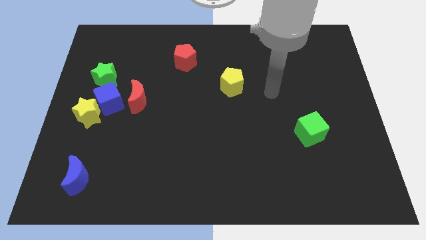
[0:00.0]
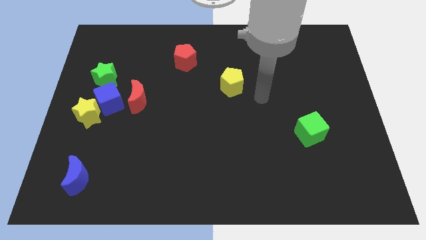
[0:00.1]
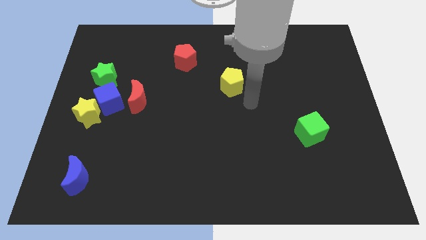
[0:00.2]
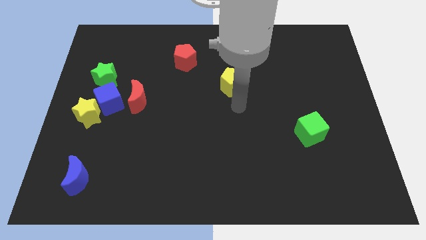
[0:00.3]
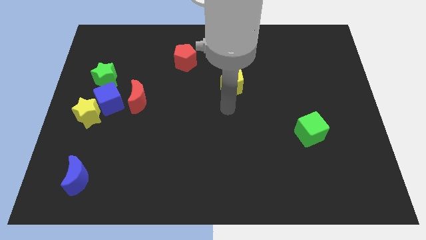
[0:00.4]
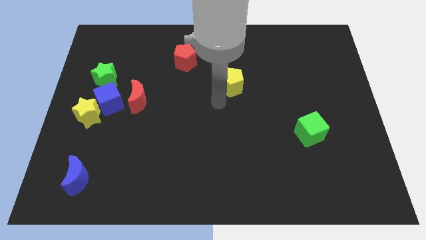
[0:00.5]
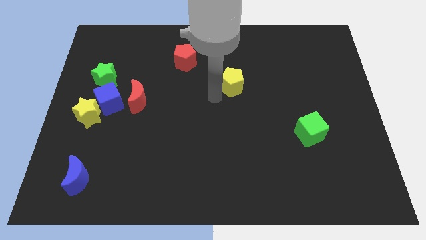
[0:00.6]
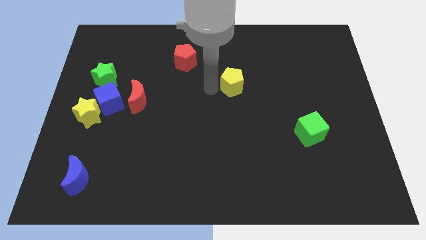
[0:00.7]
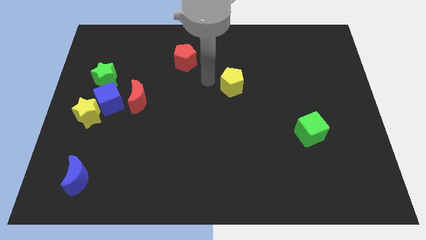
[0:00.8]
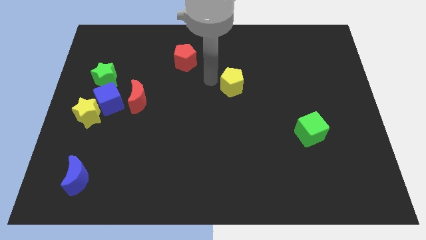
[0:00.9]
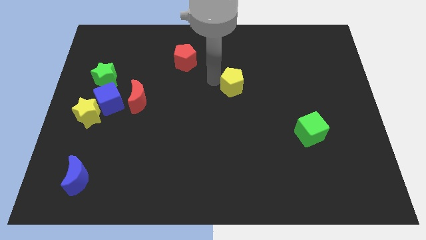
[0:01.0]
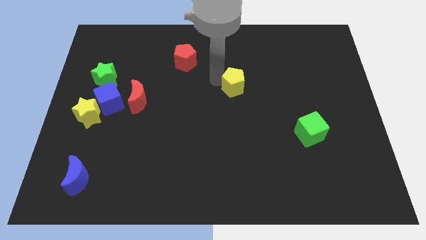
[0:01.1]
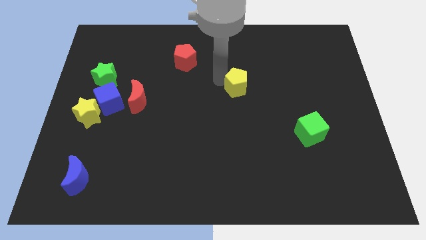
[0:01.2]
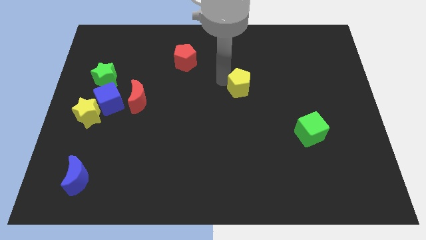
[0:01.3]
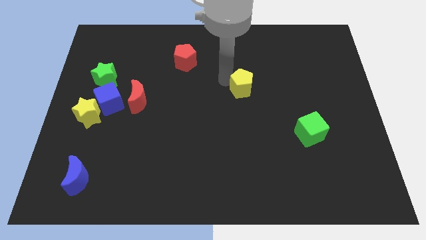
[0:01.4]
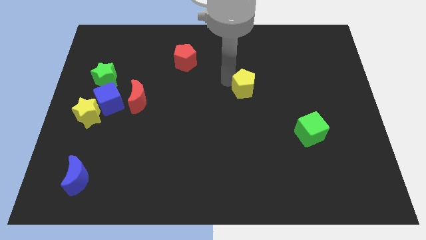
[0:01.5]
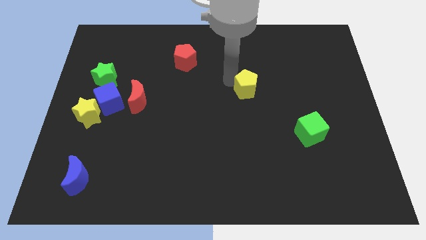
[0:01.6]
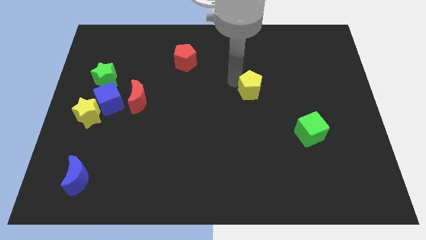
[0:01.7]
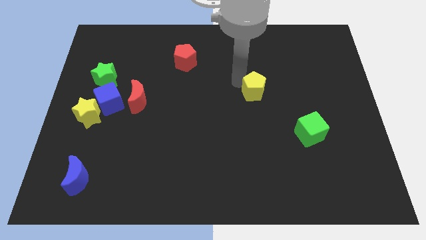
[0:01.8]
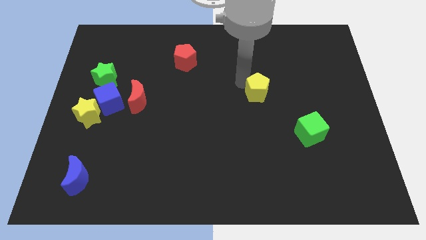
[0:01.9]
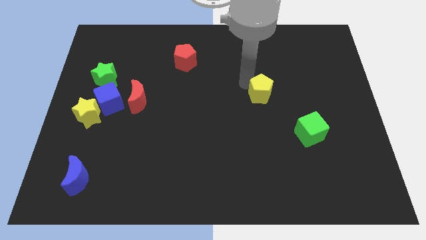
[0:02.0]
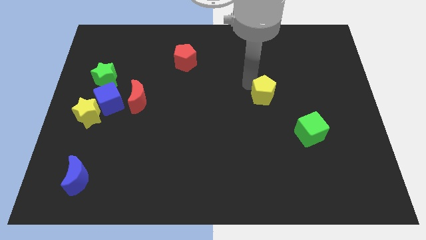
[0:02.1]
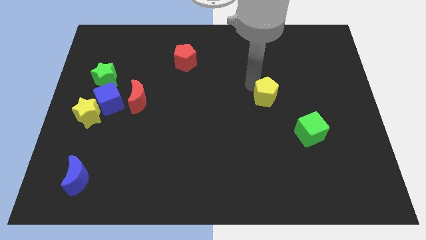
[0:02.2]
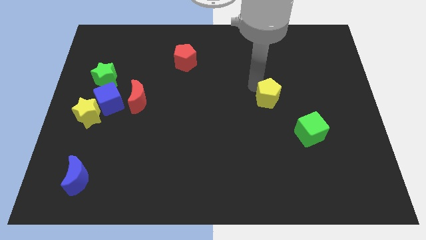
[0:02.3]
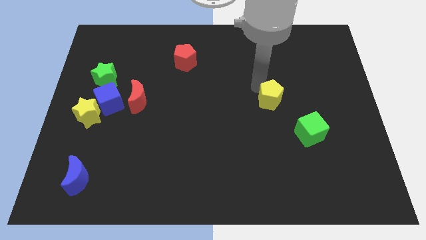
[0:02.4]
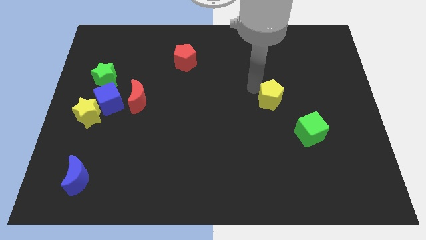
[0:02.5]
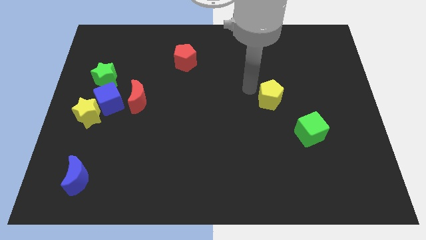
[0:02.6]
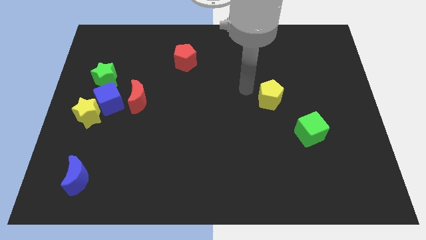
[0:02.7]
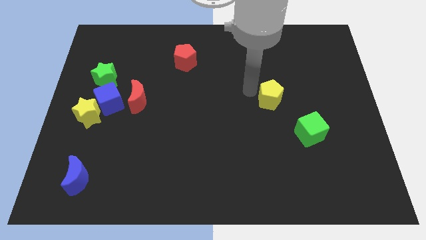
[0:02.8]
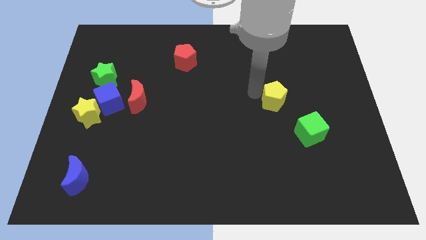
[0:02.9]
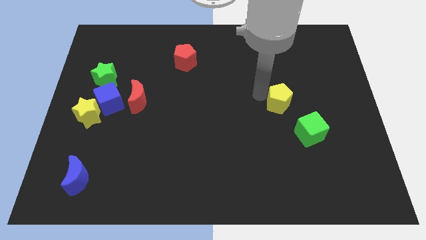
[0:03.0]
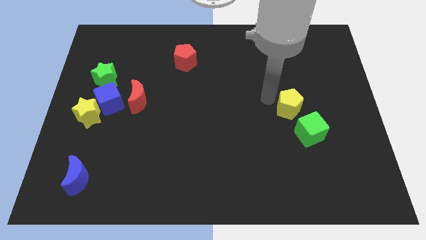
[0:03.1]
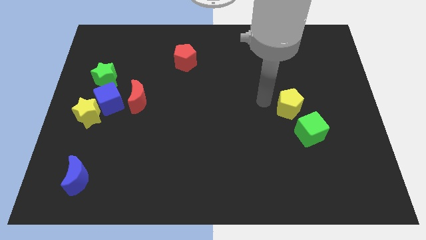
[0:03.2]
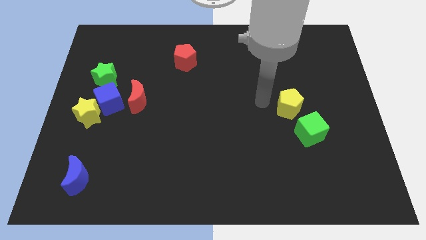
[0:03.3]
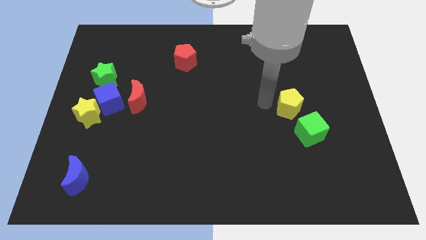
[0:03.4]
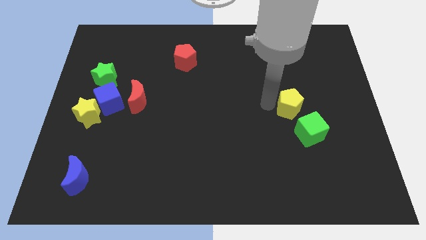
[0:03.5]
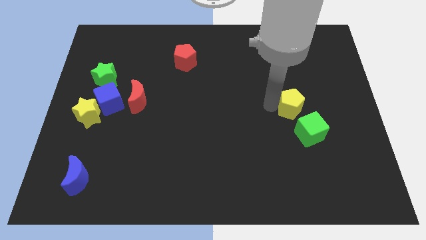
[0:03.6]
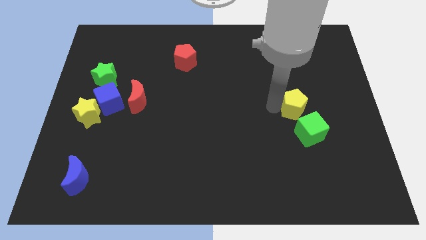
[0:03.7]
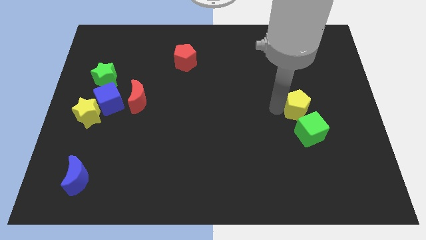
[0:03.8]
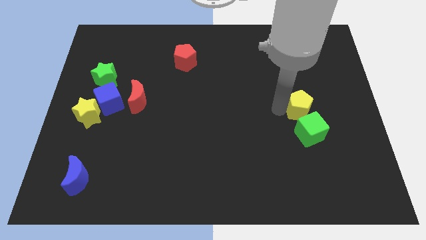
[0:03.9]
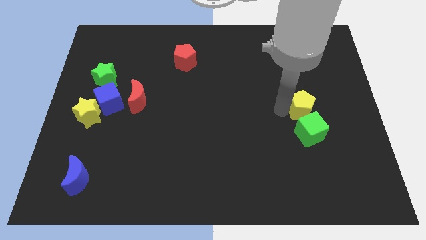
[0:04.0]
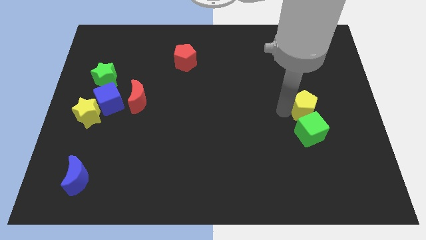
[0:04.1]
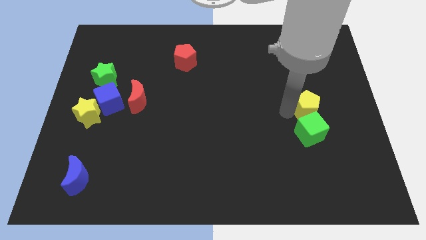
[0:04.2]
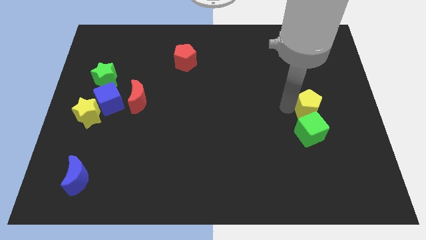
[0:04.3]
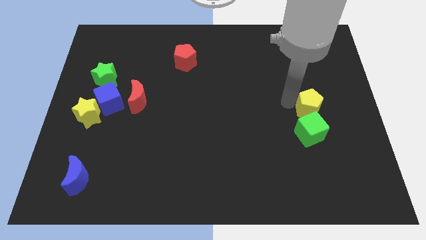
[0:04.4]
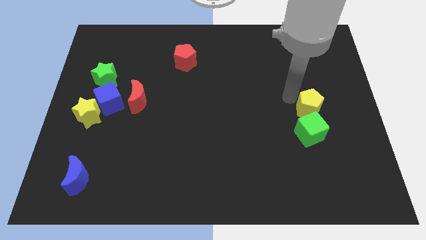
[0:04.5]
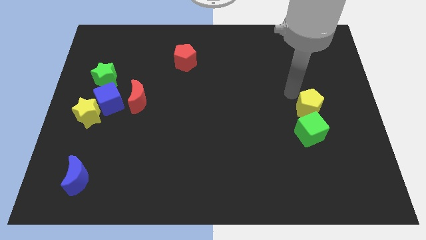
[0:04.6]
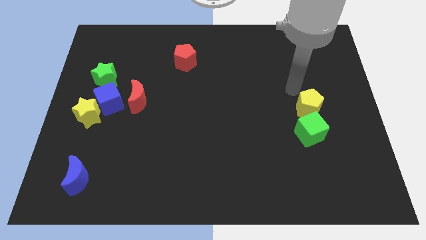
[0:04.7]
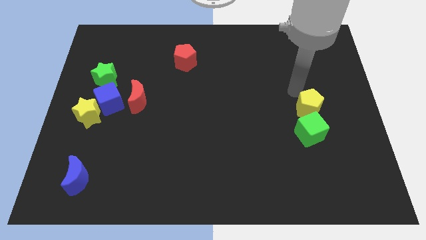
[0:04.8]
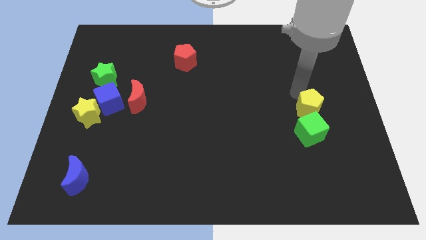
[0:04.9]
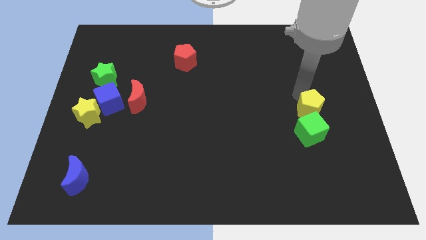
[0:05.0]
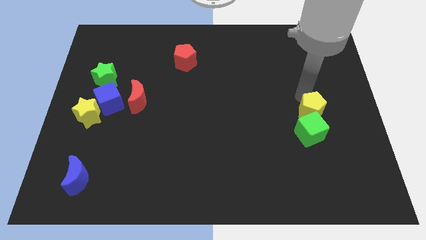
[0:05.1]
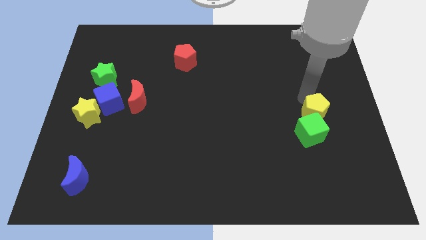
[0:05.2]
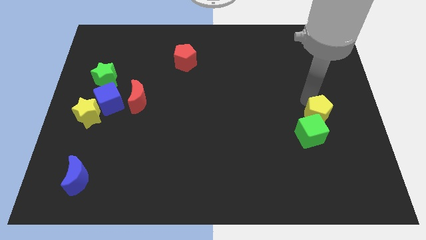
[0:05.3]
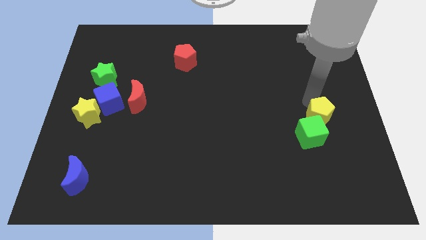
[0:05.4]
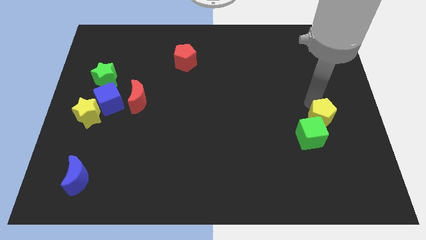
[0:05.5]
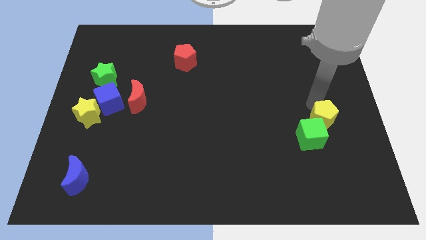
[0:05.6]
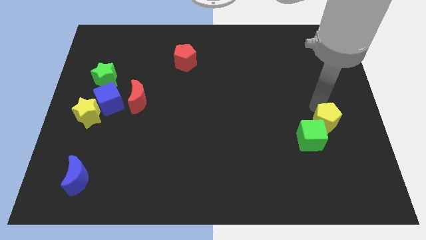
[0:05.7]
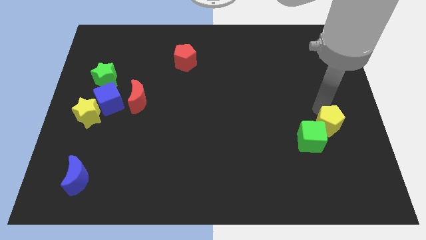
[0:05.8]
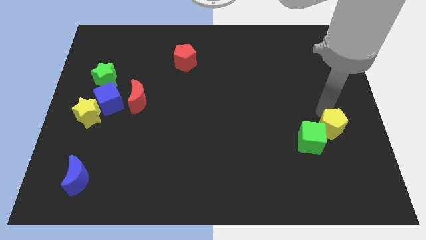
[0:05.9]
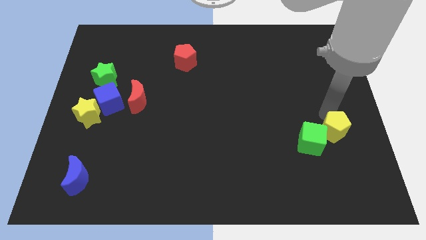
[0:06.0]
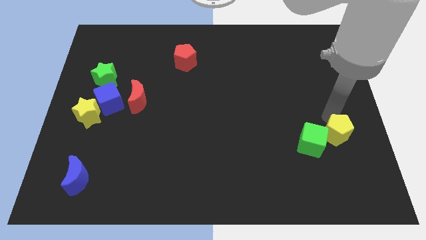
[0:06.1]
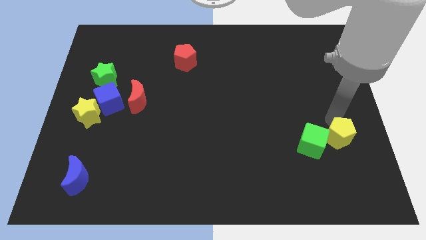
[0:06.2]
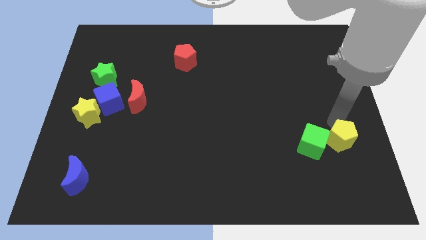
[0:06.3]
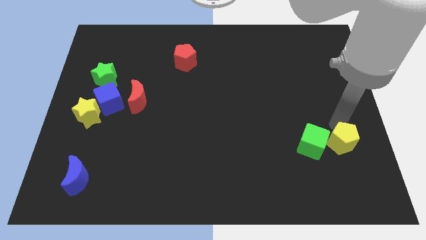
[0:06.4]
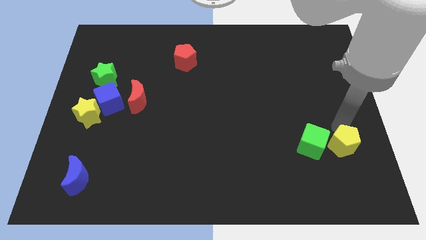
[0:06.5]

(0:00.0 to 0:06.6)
put the yellow pentagon to the bottom right side of the green cube
